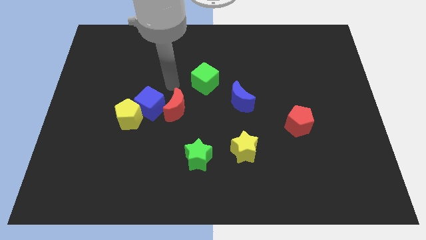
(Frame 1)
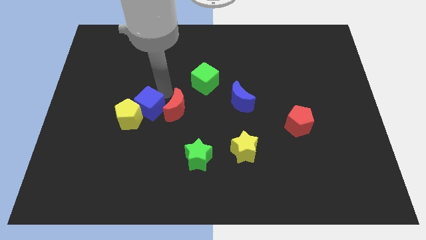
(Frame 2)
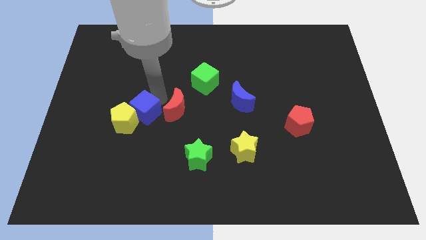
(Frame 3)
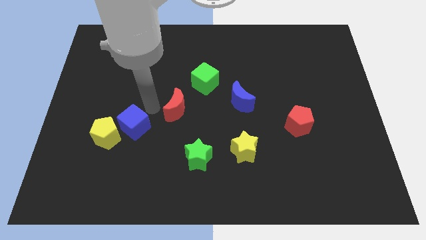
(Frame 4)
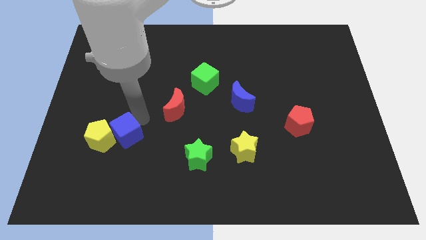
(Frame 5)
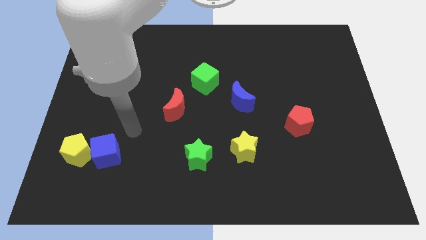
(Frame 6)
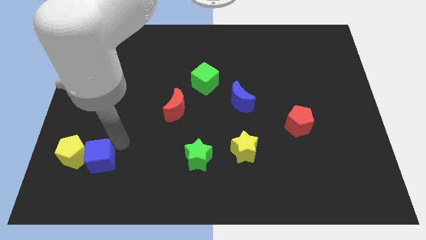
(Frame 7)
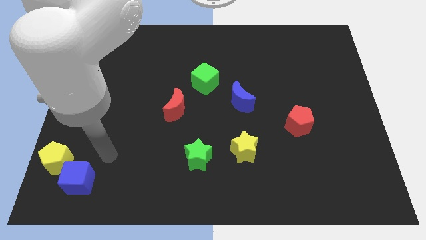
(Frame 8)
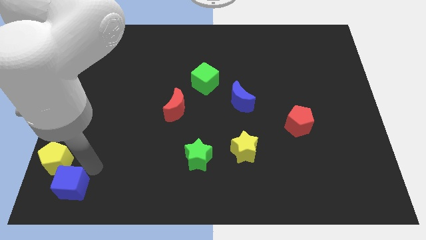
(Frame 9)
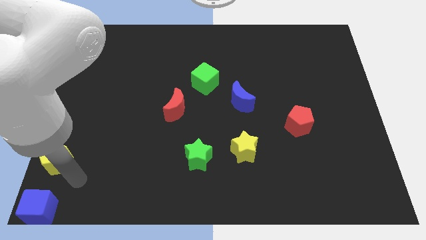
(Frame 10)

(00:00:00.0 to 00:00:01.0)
move the yellow pentagon away from the blue cube

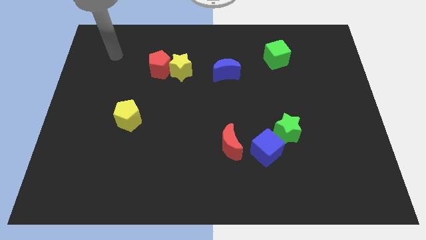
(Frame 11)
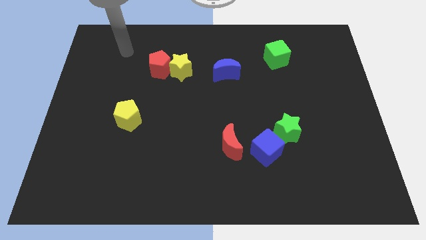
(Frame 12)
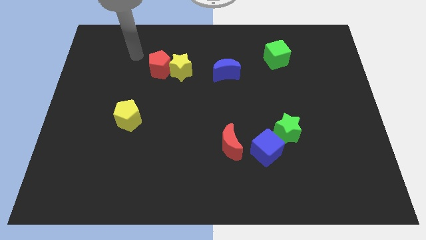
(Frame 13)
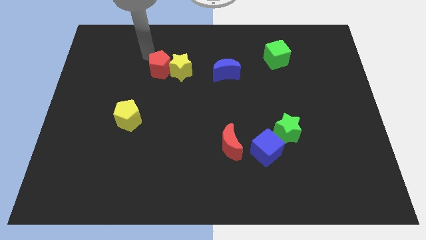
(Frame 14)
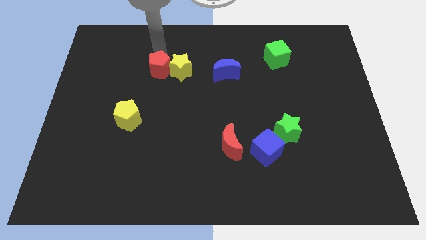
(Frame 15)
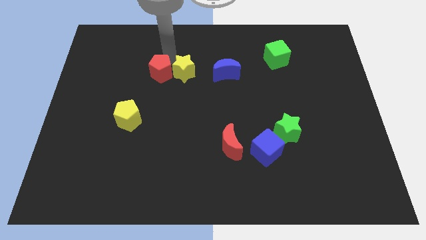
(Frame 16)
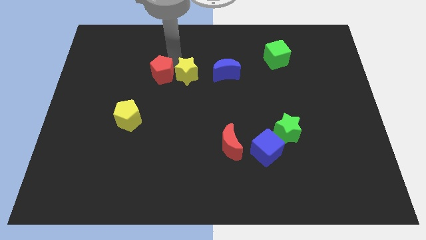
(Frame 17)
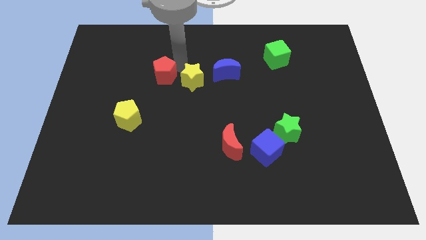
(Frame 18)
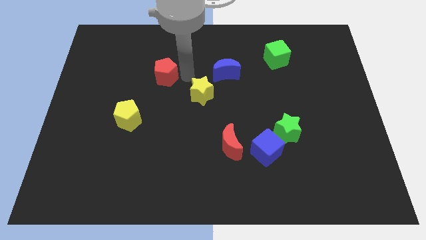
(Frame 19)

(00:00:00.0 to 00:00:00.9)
pull the red pentagon apart from the yellow star

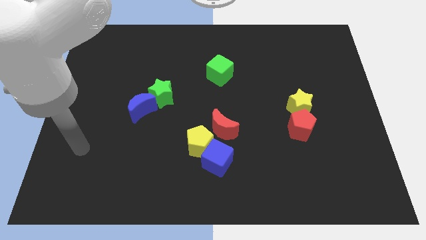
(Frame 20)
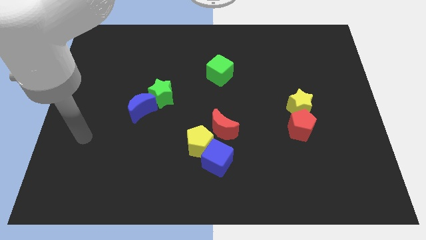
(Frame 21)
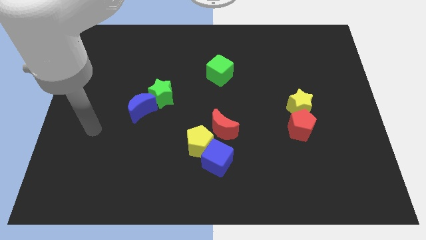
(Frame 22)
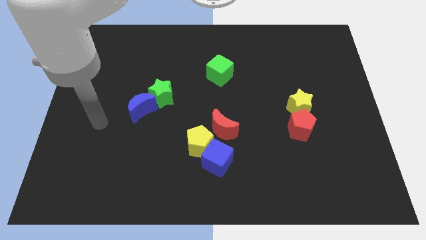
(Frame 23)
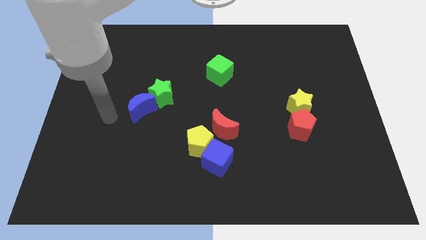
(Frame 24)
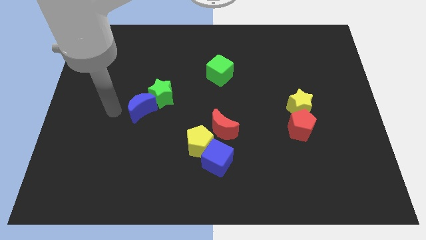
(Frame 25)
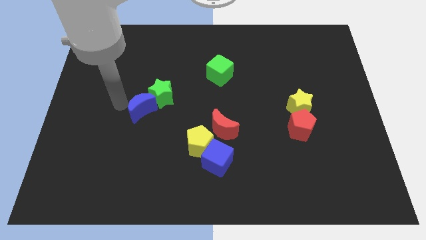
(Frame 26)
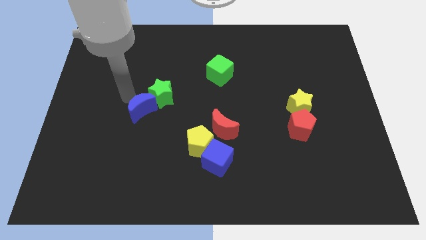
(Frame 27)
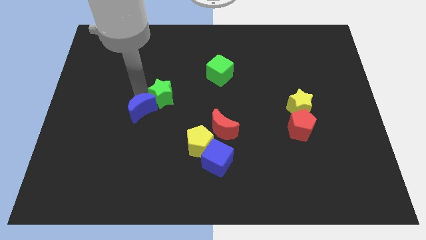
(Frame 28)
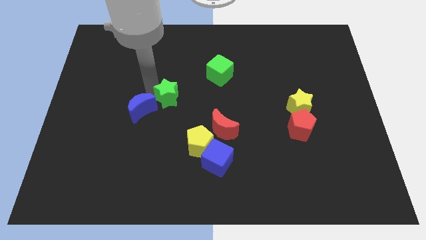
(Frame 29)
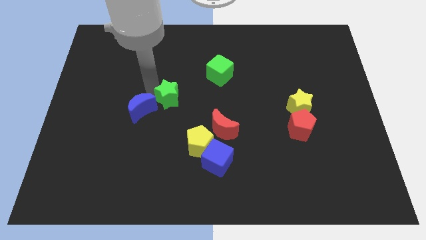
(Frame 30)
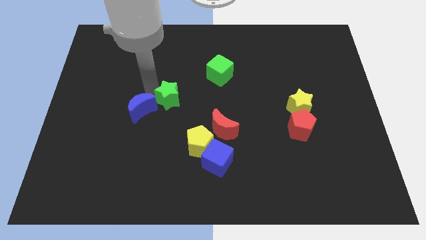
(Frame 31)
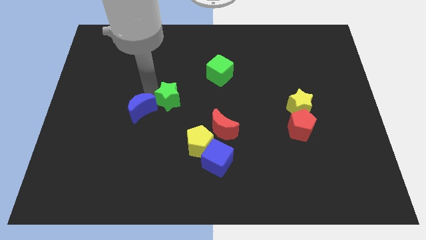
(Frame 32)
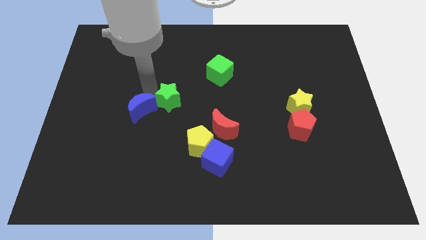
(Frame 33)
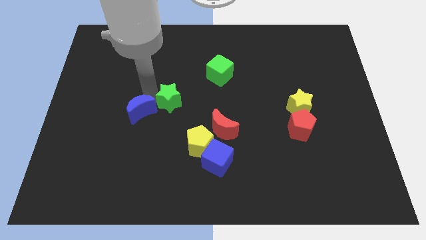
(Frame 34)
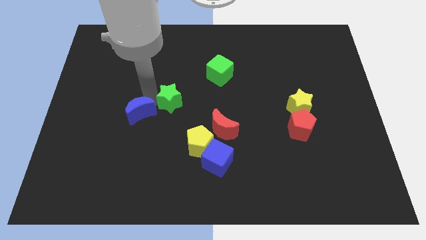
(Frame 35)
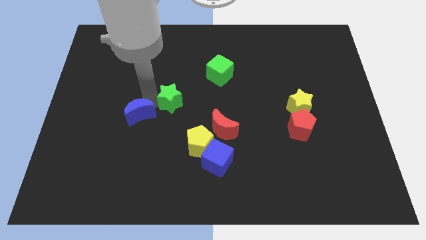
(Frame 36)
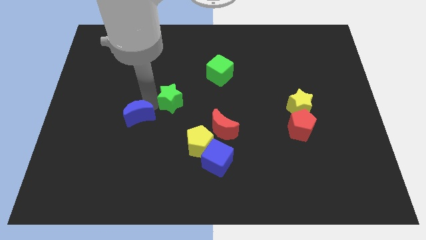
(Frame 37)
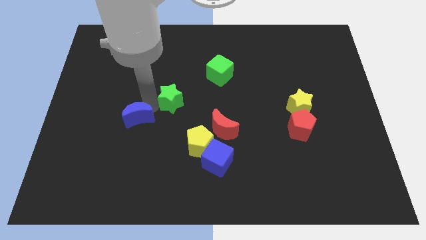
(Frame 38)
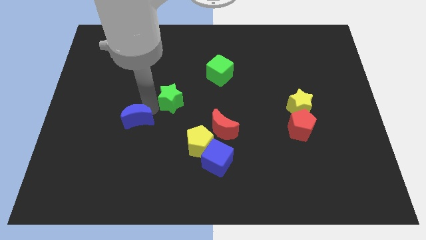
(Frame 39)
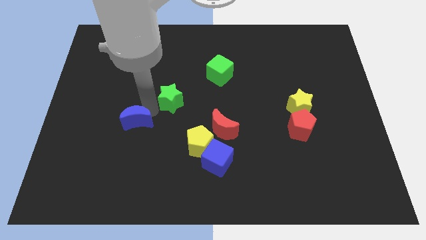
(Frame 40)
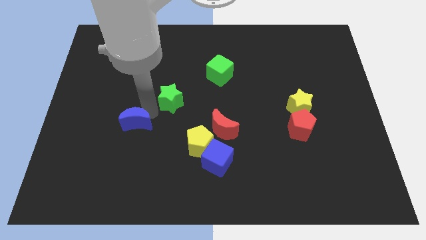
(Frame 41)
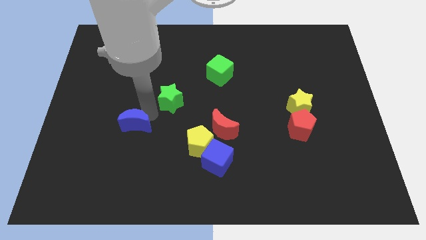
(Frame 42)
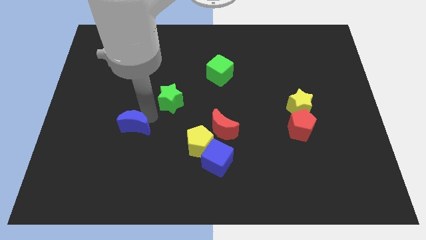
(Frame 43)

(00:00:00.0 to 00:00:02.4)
separate the blue moon from the green star

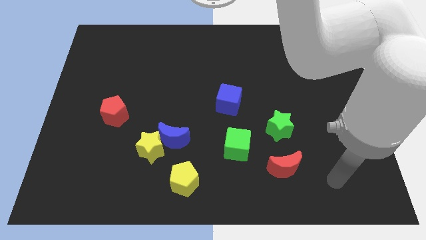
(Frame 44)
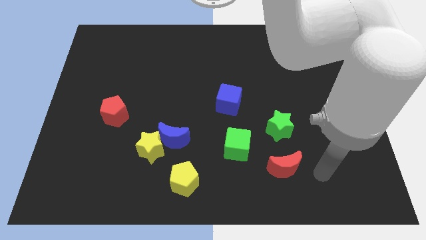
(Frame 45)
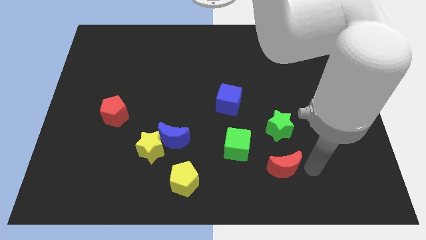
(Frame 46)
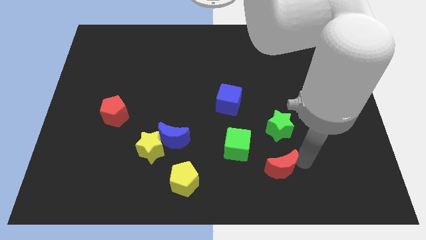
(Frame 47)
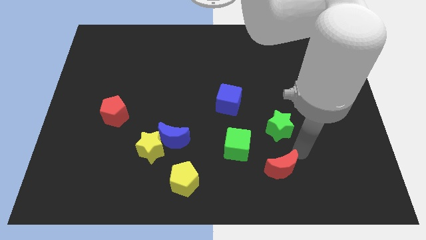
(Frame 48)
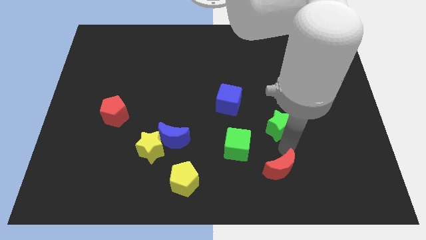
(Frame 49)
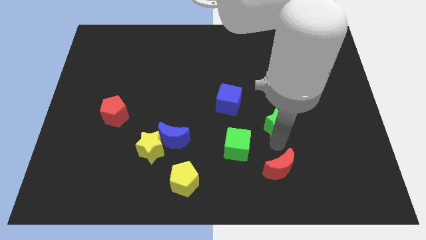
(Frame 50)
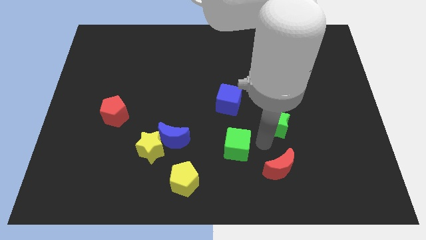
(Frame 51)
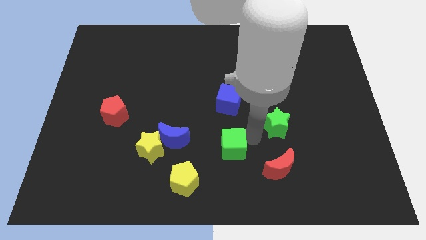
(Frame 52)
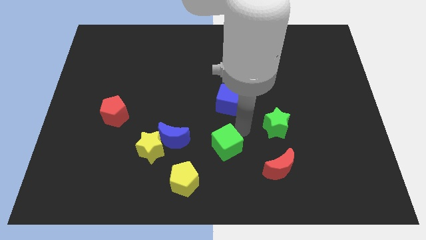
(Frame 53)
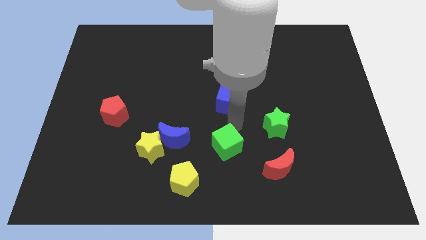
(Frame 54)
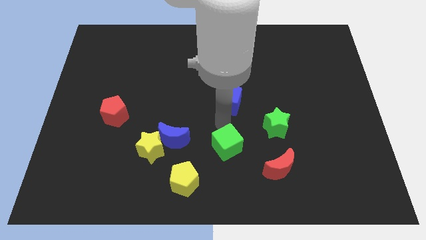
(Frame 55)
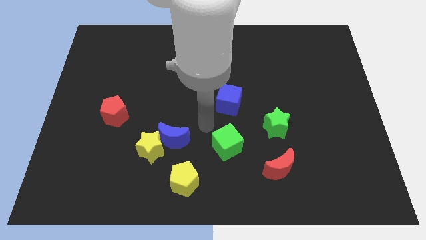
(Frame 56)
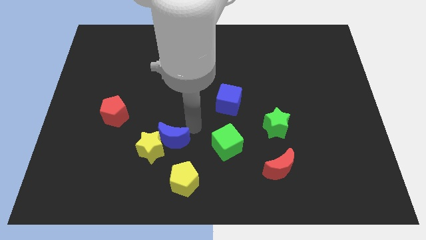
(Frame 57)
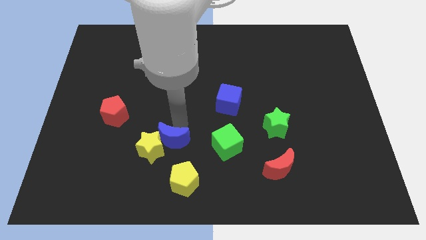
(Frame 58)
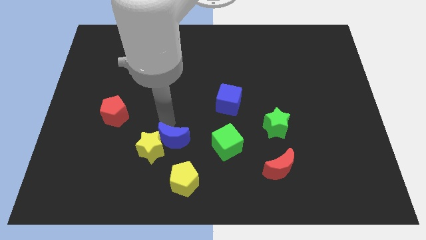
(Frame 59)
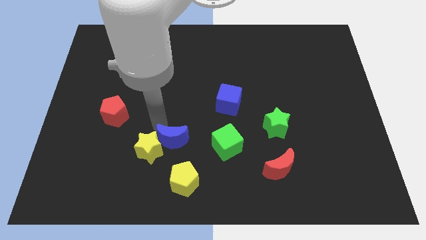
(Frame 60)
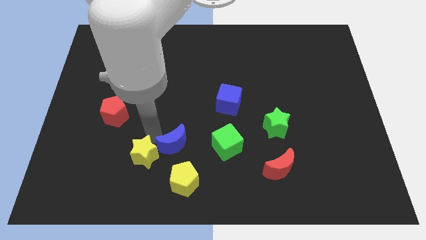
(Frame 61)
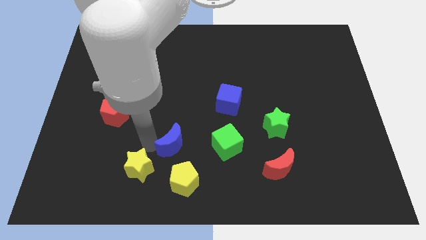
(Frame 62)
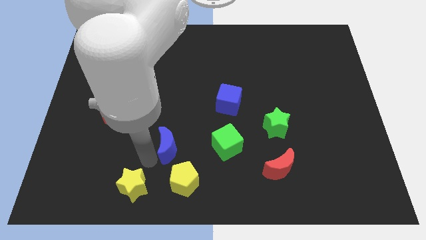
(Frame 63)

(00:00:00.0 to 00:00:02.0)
separate the blue moon from the yellow star

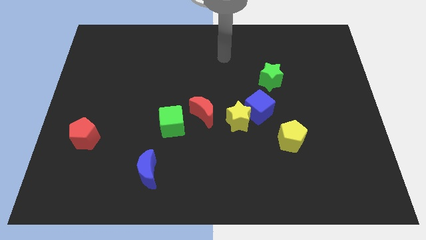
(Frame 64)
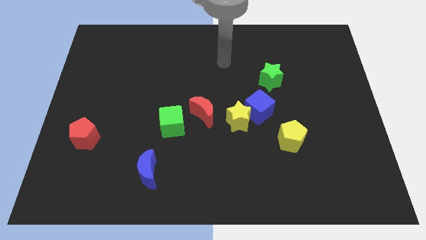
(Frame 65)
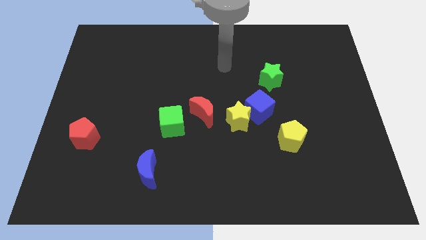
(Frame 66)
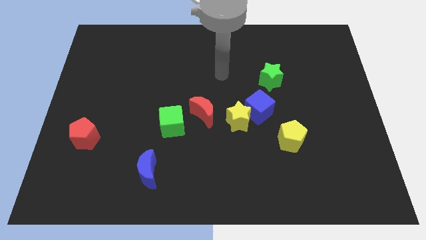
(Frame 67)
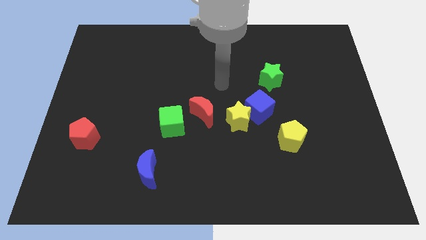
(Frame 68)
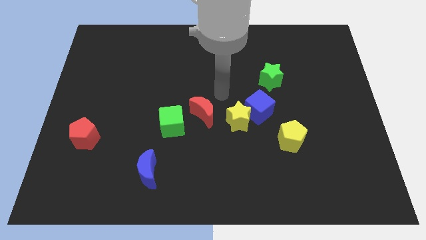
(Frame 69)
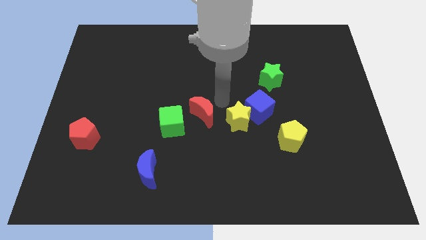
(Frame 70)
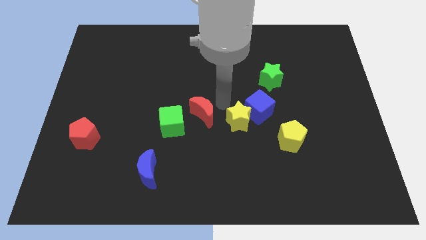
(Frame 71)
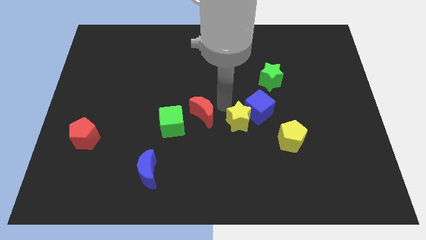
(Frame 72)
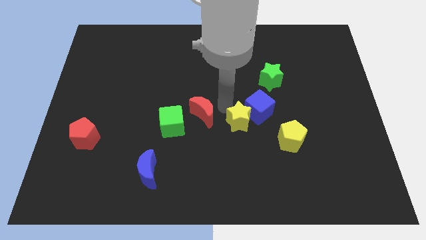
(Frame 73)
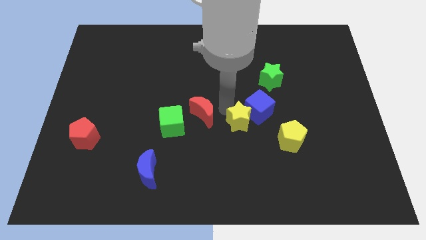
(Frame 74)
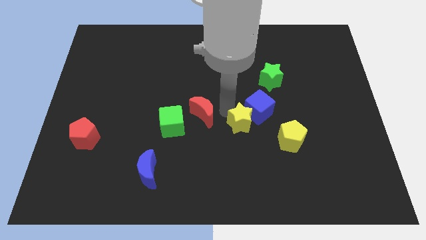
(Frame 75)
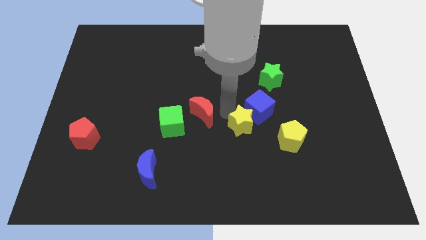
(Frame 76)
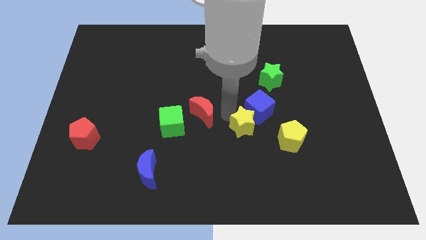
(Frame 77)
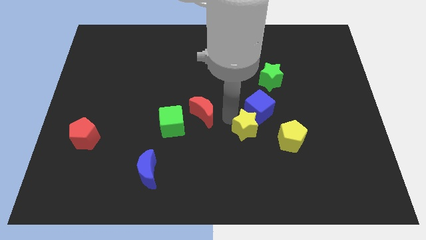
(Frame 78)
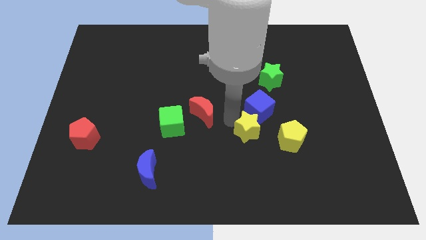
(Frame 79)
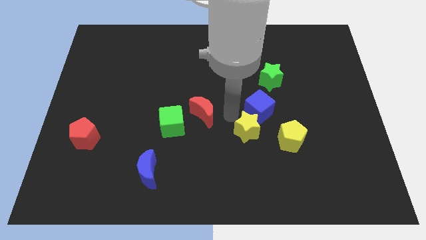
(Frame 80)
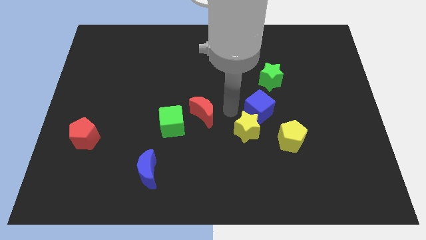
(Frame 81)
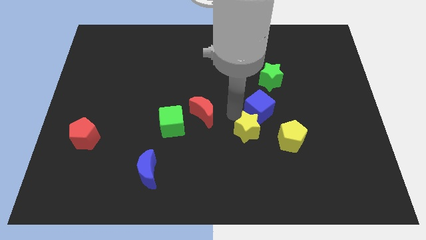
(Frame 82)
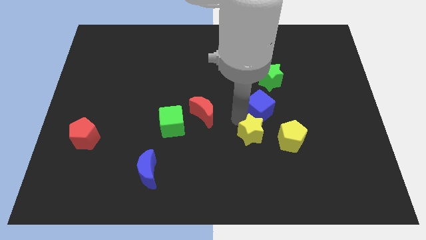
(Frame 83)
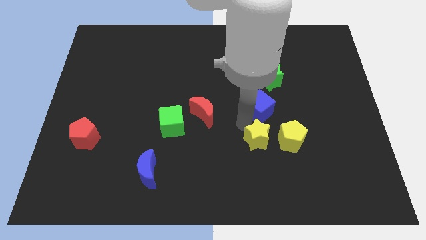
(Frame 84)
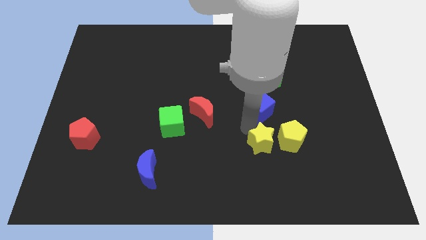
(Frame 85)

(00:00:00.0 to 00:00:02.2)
move the yellow star away from the blue cube and red moon

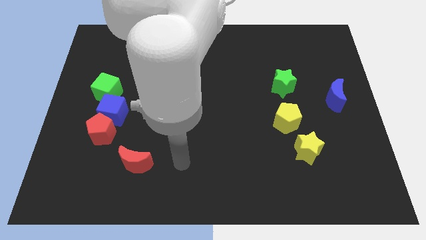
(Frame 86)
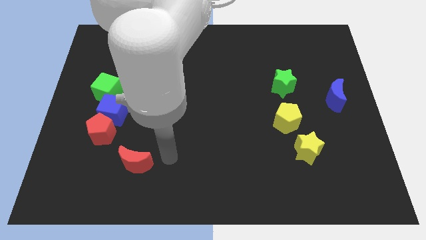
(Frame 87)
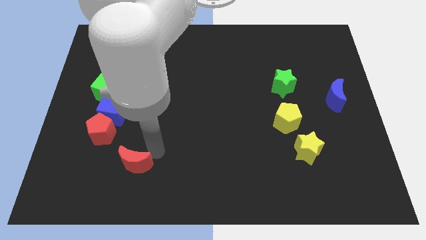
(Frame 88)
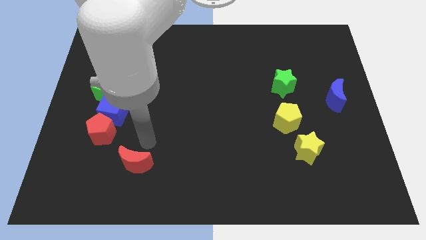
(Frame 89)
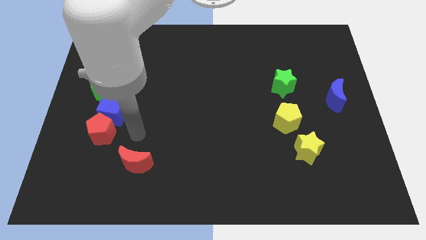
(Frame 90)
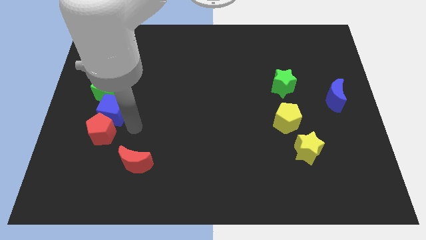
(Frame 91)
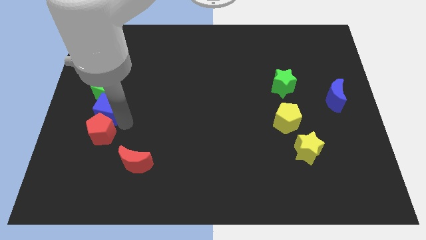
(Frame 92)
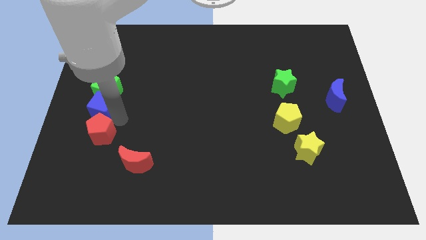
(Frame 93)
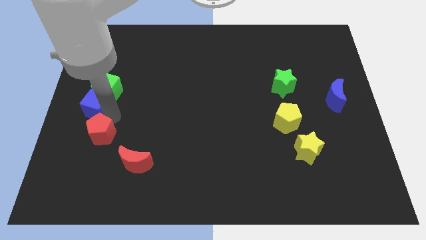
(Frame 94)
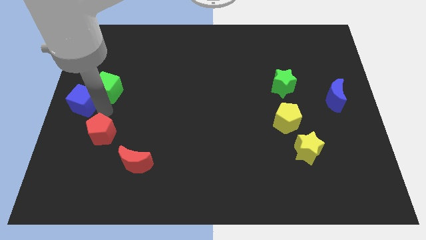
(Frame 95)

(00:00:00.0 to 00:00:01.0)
pull the red pentagon apart from the blue cube
